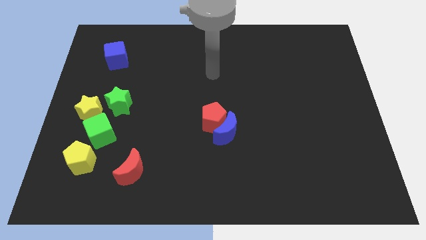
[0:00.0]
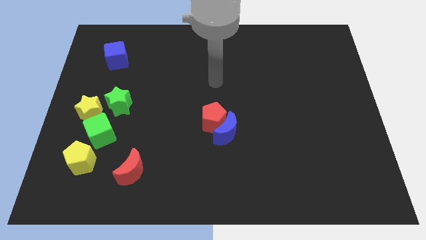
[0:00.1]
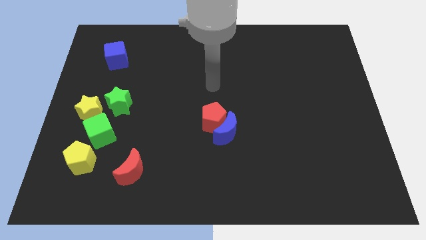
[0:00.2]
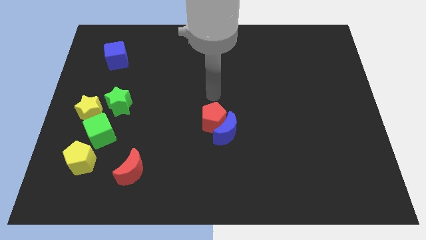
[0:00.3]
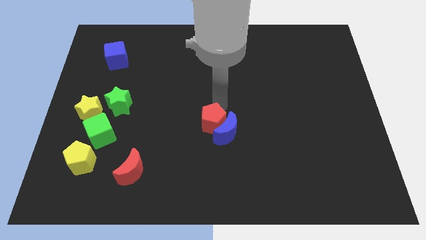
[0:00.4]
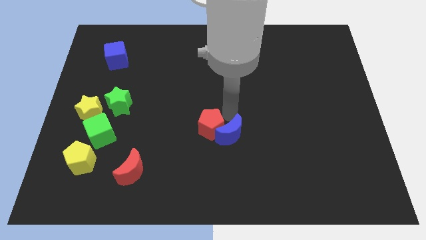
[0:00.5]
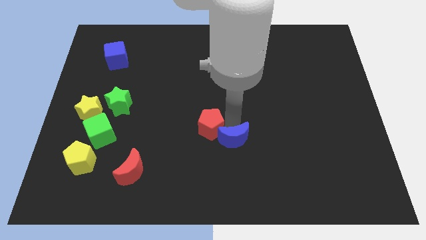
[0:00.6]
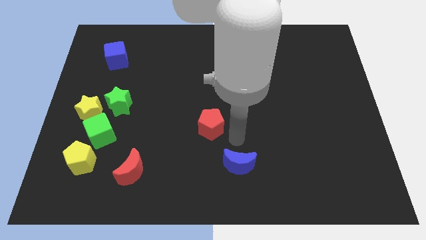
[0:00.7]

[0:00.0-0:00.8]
separate the red pentagon from the blue moon

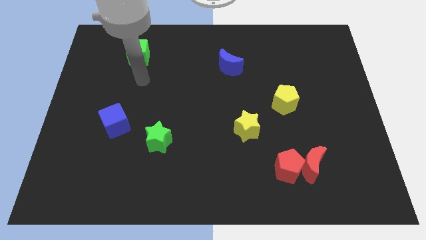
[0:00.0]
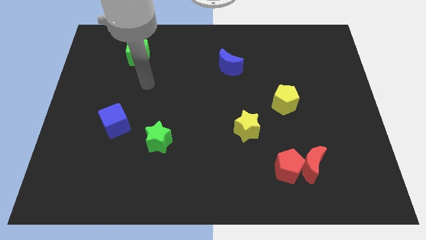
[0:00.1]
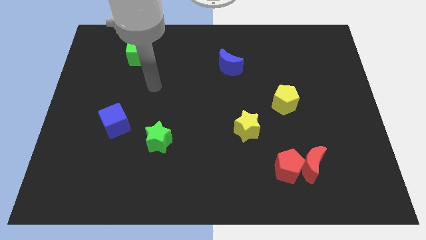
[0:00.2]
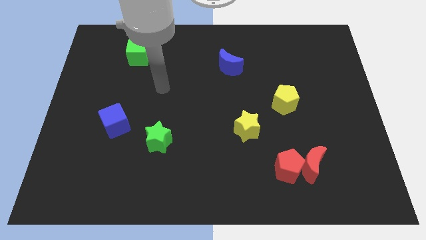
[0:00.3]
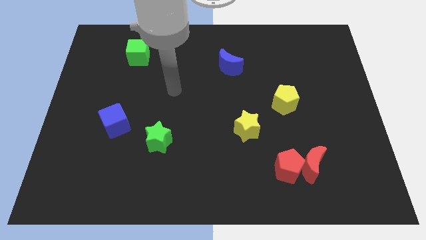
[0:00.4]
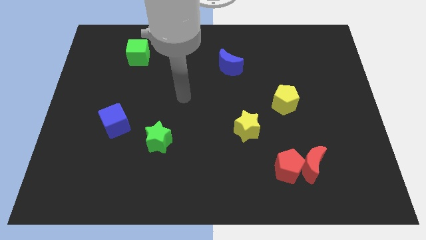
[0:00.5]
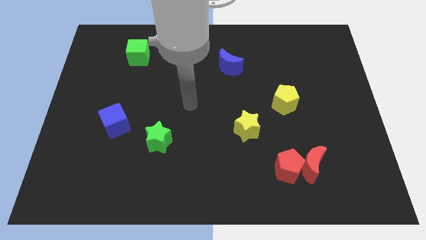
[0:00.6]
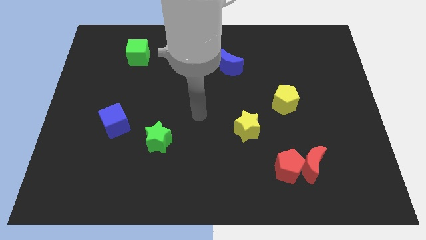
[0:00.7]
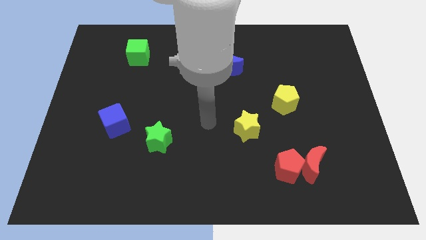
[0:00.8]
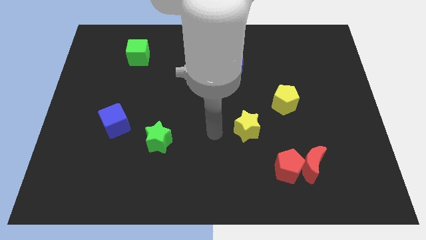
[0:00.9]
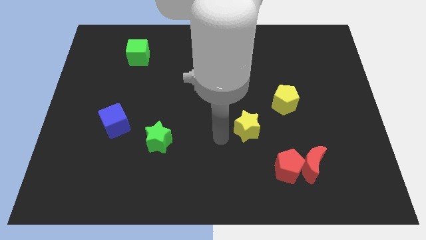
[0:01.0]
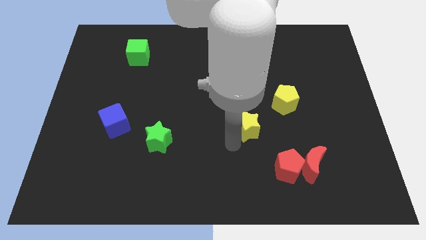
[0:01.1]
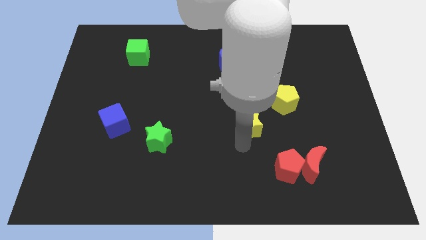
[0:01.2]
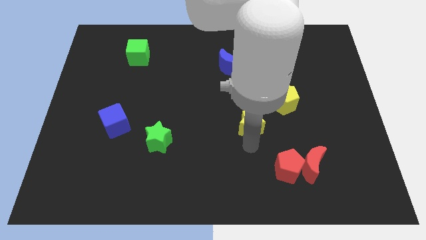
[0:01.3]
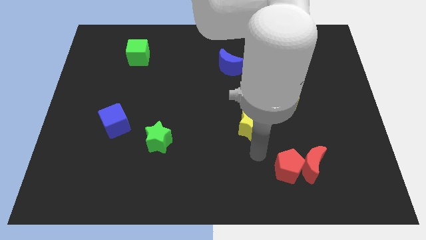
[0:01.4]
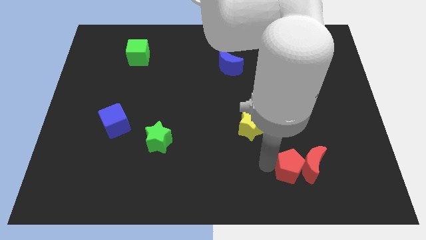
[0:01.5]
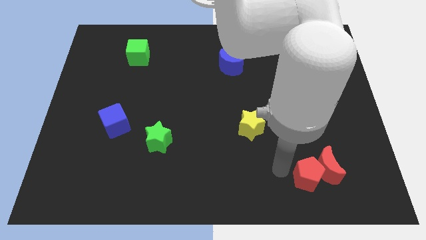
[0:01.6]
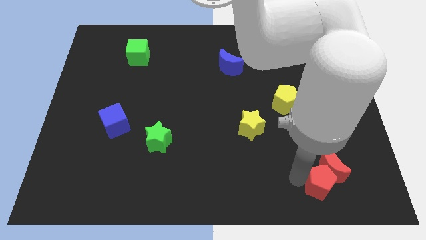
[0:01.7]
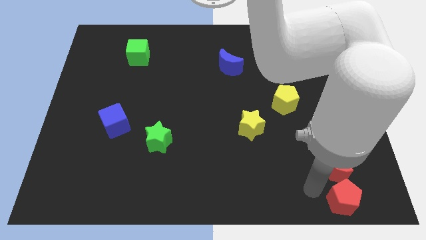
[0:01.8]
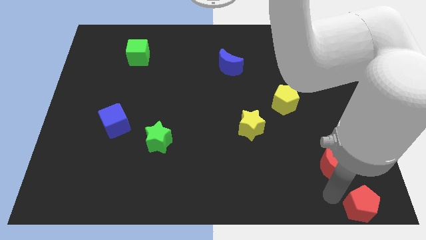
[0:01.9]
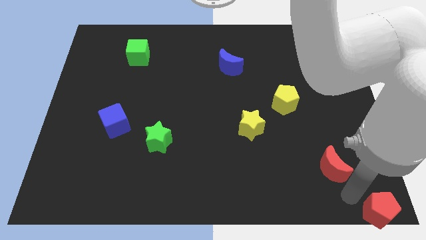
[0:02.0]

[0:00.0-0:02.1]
pull the red moon apart from the red pentagon

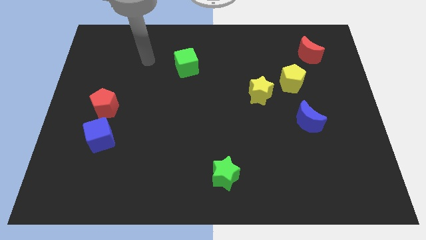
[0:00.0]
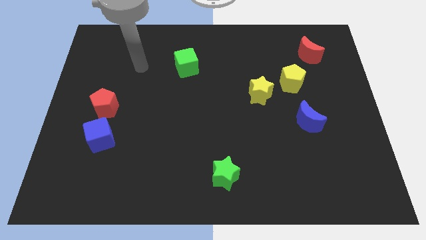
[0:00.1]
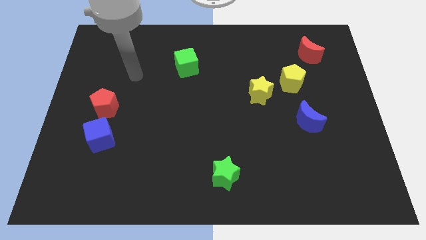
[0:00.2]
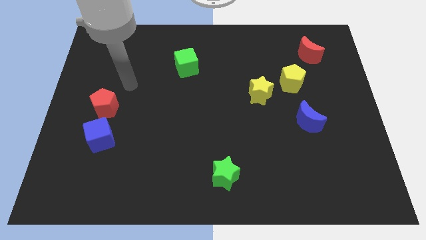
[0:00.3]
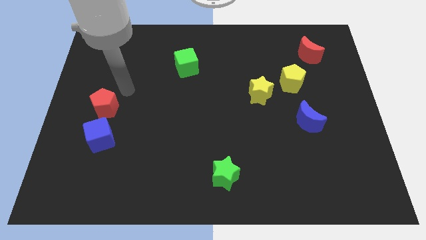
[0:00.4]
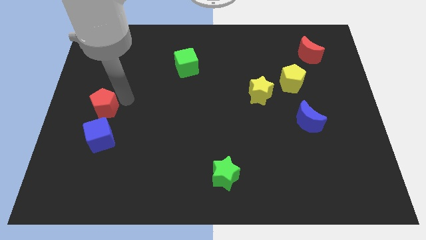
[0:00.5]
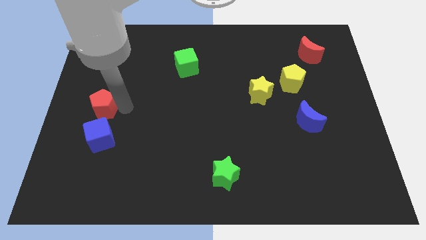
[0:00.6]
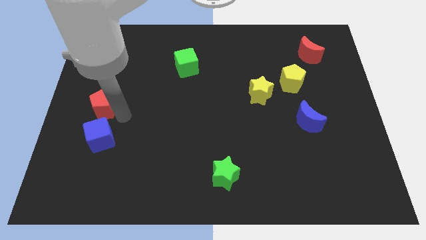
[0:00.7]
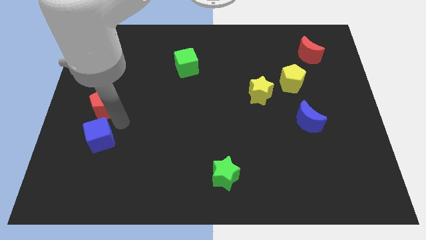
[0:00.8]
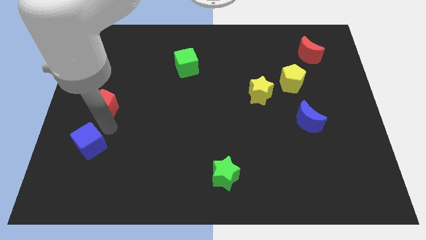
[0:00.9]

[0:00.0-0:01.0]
pull the red pentagon apart from the blue cube

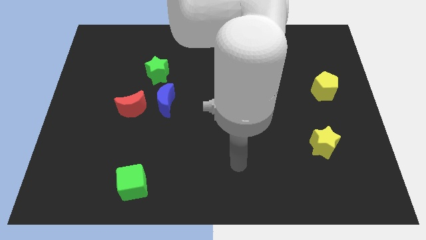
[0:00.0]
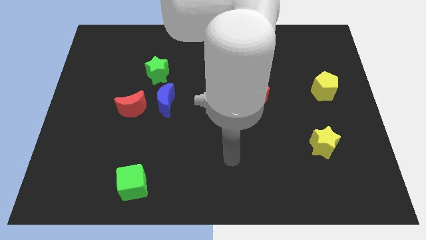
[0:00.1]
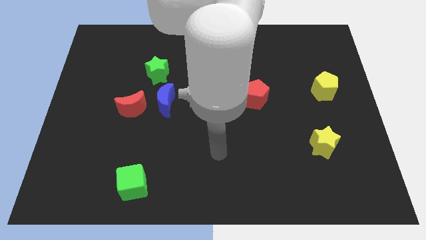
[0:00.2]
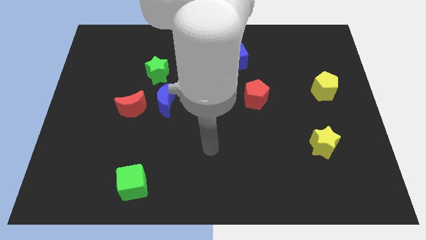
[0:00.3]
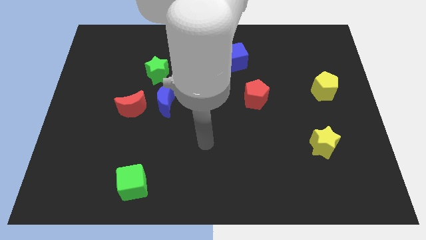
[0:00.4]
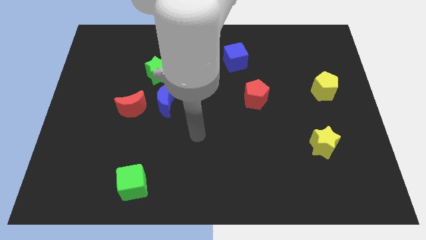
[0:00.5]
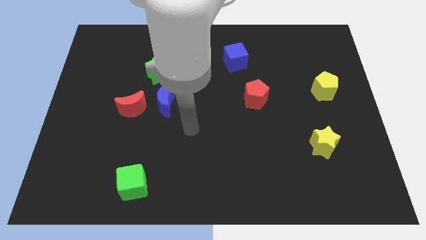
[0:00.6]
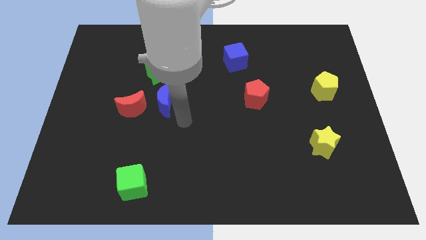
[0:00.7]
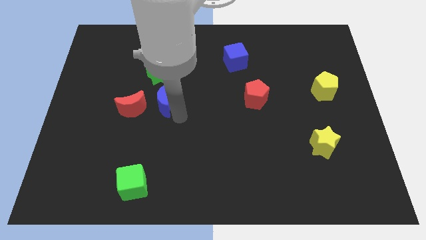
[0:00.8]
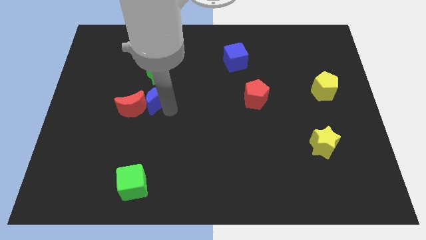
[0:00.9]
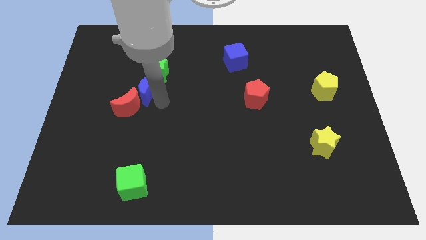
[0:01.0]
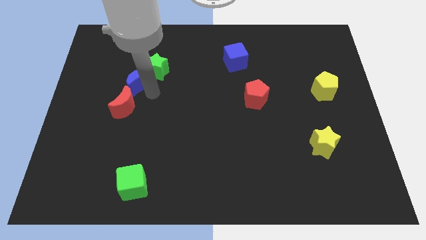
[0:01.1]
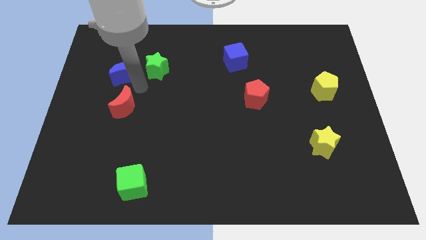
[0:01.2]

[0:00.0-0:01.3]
pull the red moon apart from the blue moon

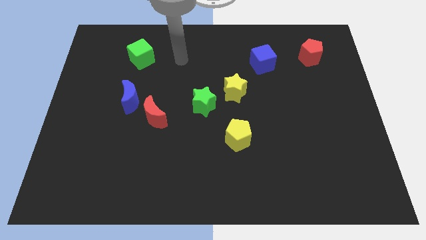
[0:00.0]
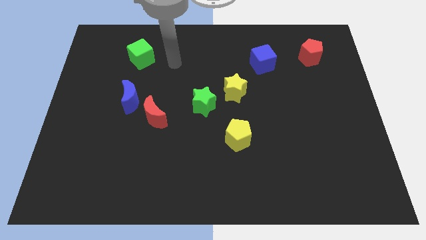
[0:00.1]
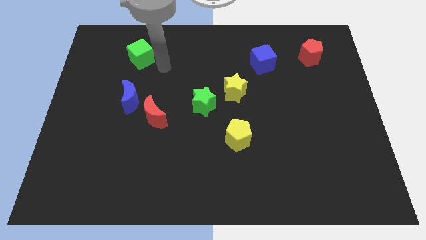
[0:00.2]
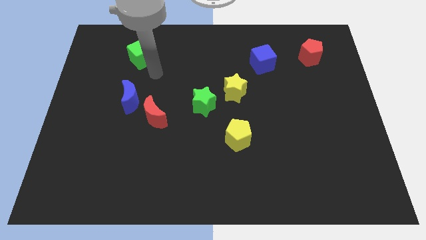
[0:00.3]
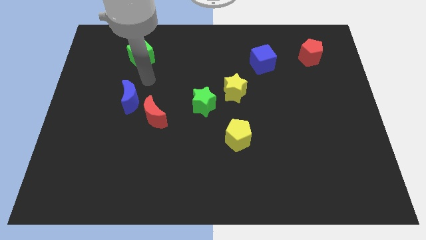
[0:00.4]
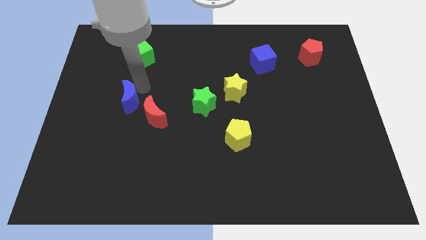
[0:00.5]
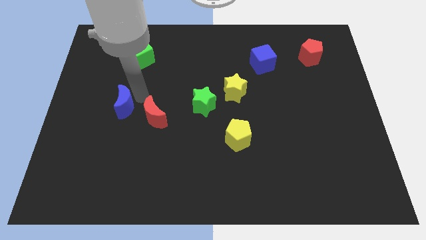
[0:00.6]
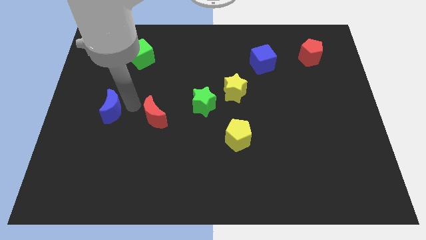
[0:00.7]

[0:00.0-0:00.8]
move the red moon away from the blue moon

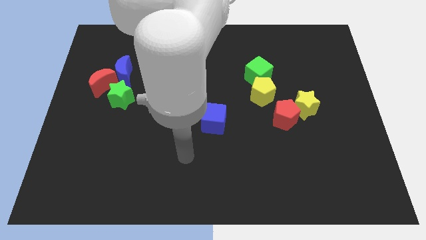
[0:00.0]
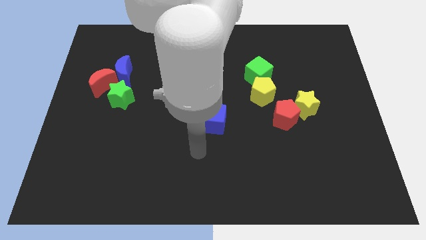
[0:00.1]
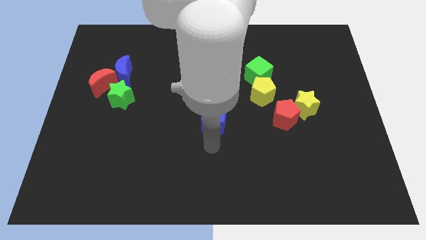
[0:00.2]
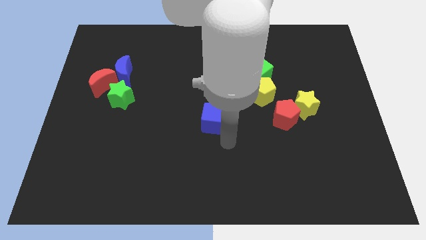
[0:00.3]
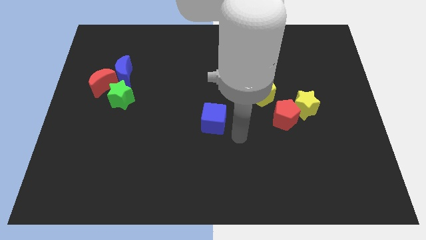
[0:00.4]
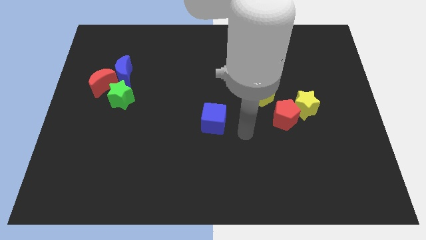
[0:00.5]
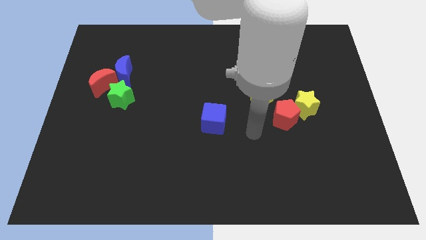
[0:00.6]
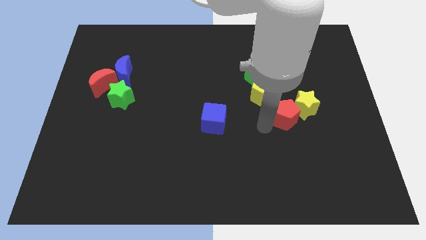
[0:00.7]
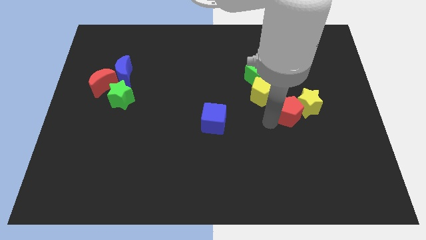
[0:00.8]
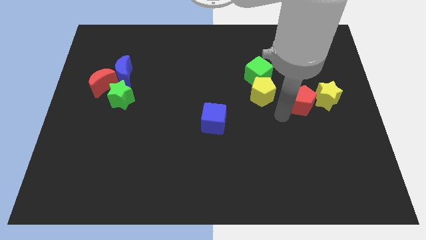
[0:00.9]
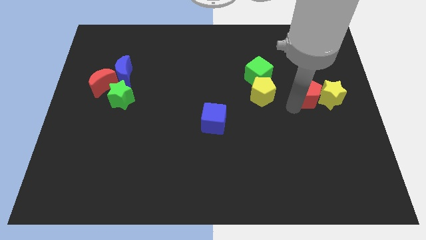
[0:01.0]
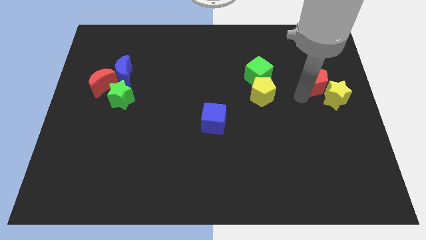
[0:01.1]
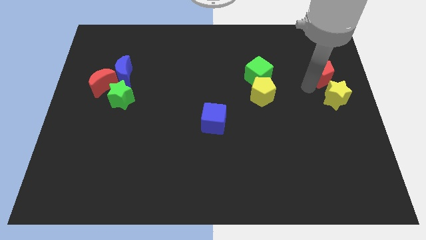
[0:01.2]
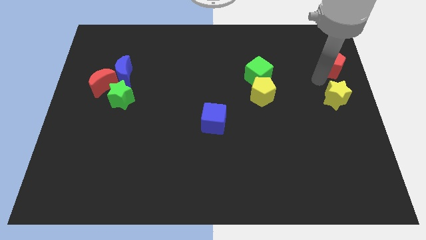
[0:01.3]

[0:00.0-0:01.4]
pull the yellow star apart from the red pentagon

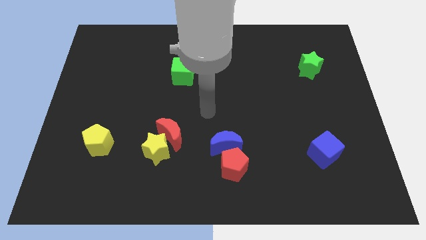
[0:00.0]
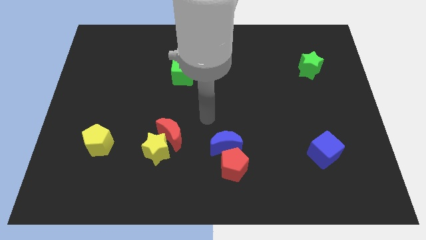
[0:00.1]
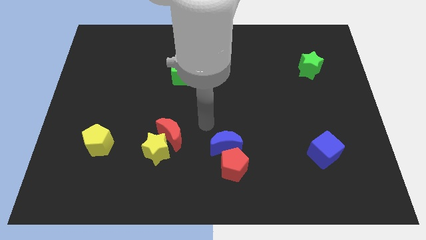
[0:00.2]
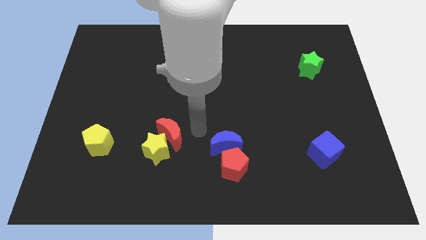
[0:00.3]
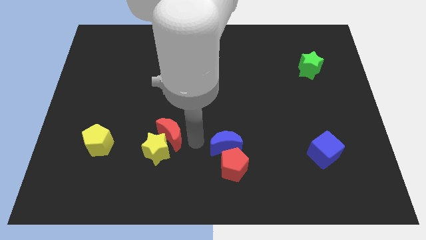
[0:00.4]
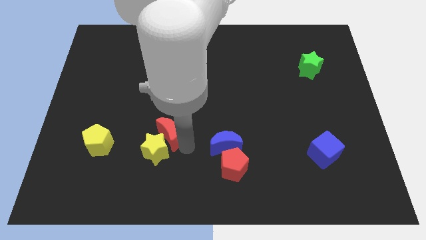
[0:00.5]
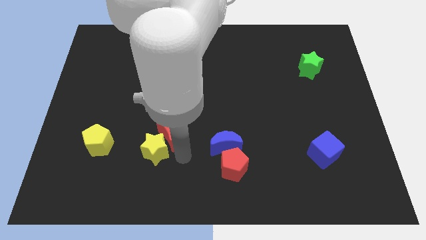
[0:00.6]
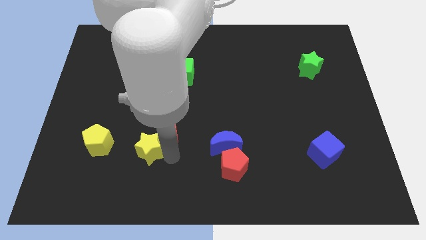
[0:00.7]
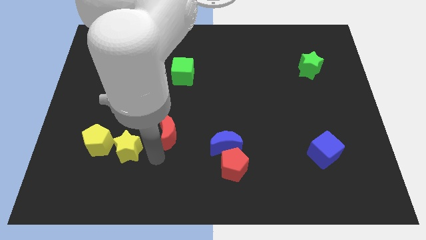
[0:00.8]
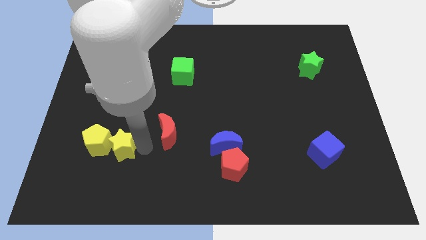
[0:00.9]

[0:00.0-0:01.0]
pull the red moon apart from the yellow star

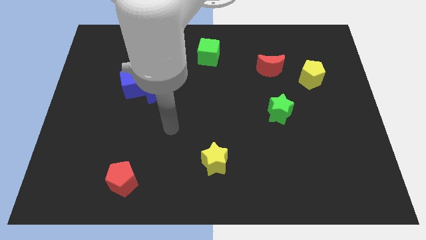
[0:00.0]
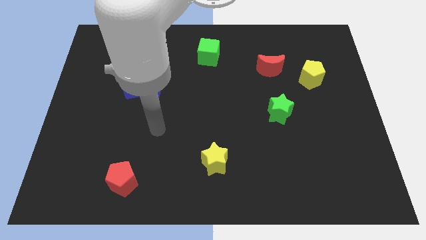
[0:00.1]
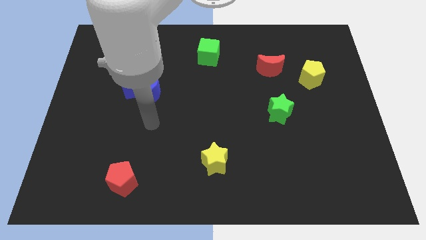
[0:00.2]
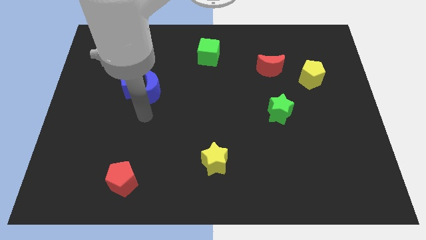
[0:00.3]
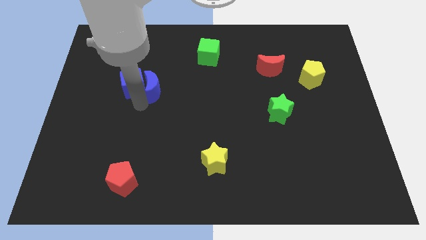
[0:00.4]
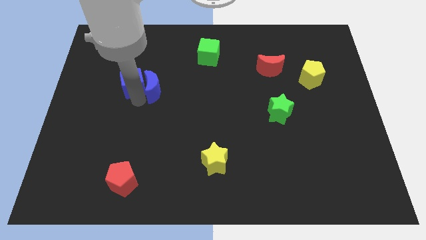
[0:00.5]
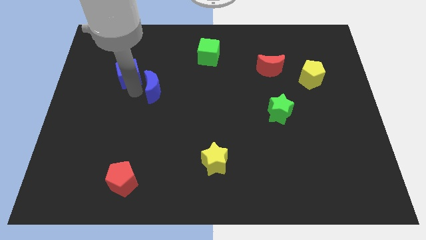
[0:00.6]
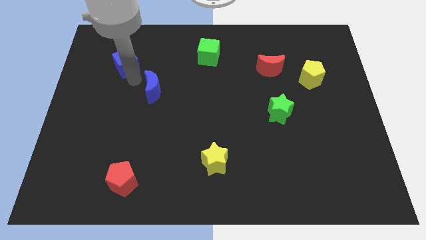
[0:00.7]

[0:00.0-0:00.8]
separate the blue moon from the blue cube

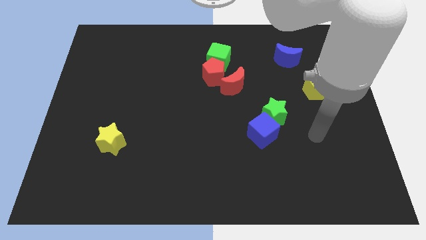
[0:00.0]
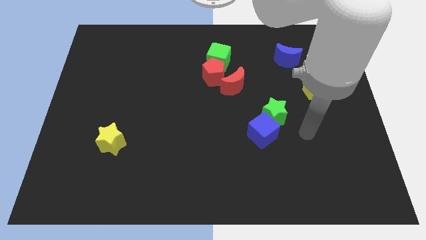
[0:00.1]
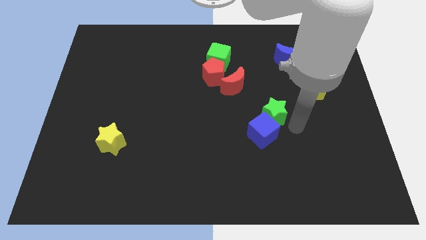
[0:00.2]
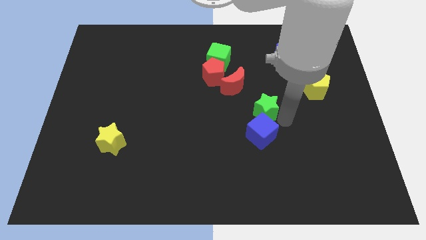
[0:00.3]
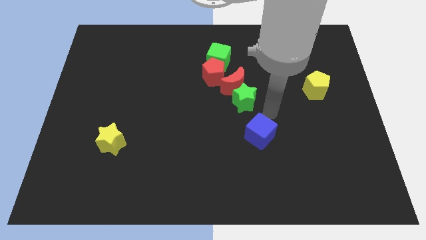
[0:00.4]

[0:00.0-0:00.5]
pull the blue cube apart from the green star
